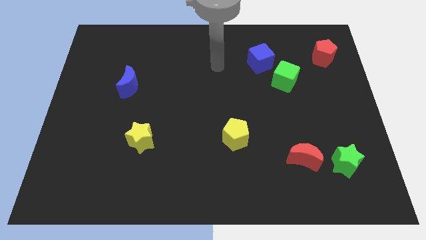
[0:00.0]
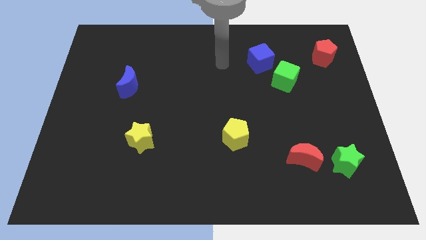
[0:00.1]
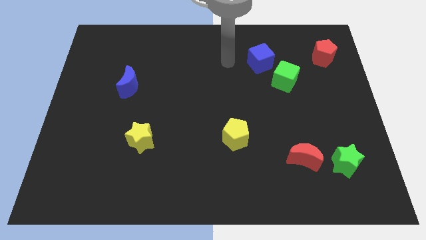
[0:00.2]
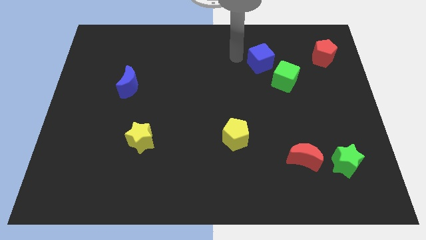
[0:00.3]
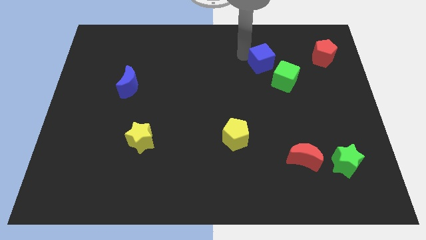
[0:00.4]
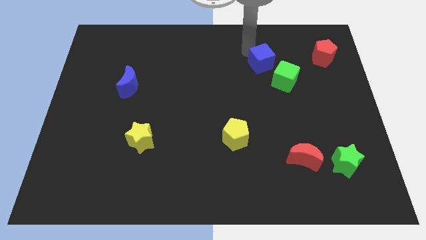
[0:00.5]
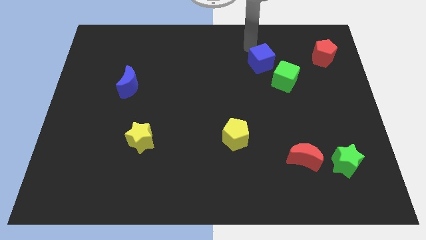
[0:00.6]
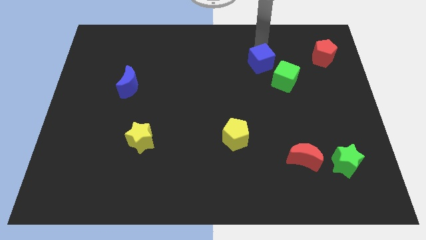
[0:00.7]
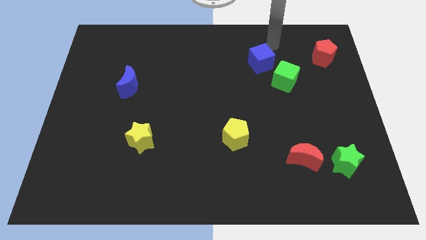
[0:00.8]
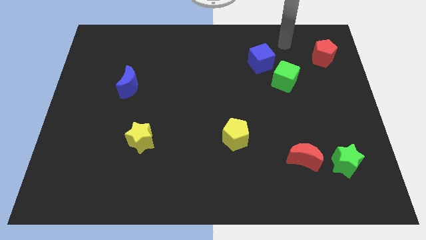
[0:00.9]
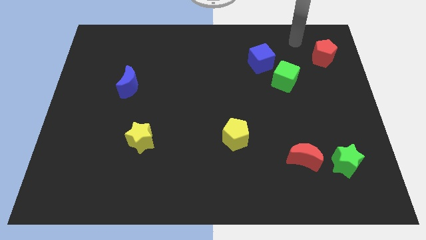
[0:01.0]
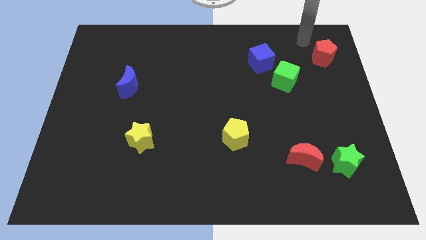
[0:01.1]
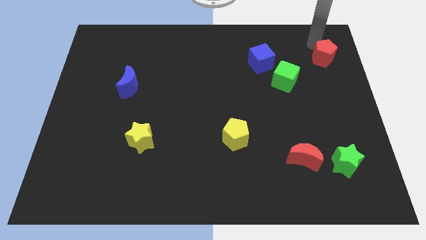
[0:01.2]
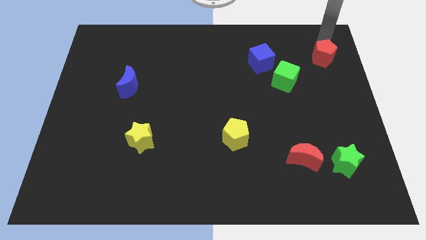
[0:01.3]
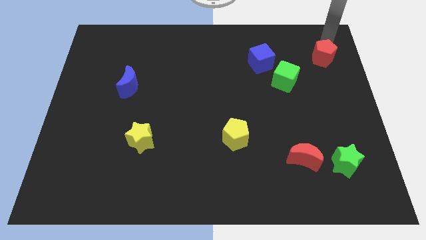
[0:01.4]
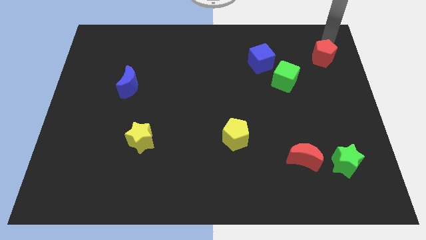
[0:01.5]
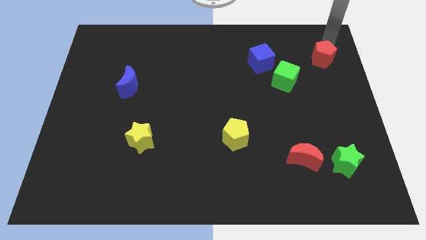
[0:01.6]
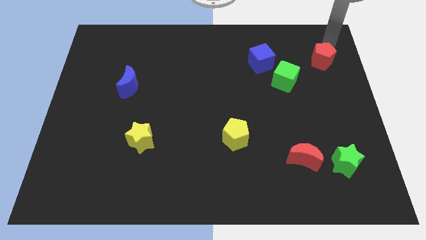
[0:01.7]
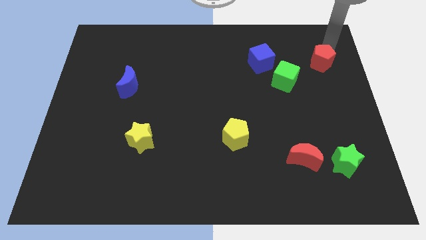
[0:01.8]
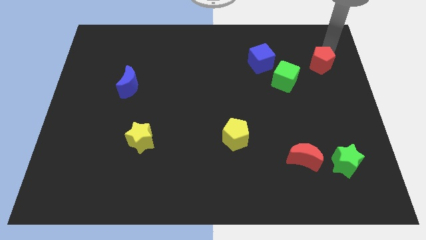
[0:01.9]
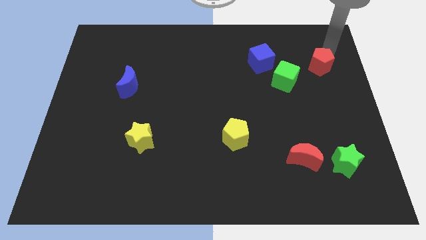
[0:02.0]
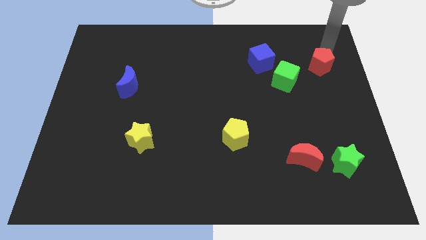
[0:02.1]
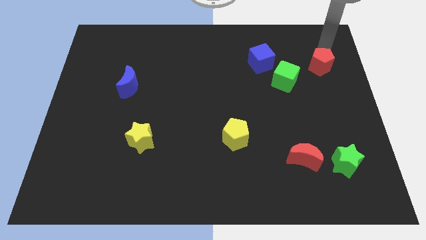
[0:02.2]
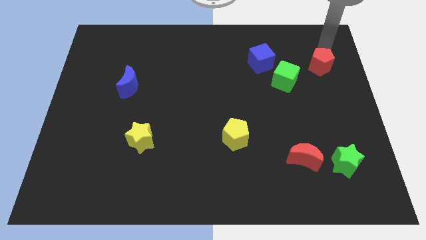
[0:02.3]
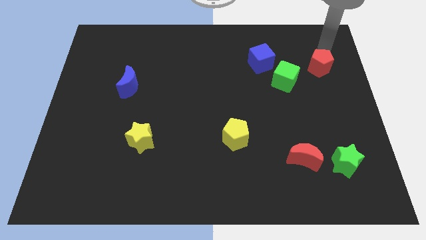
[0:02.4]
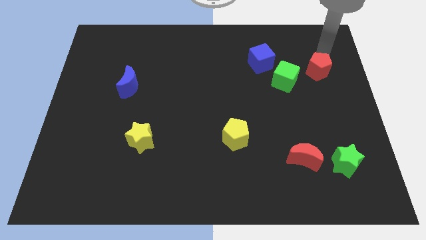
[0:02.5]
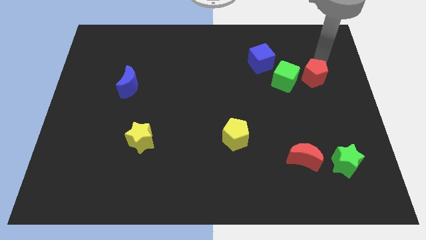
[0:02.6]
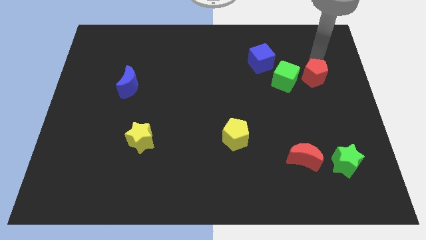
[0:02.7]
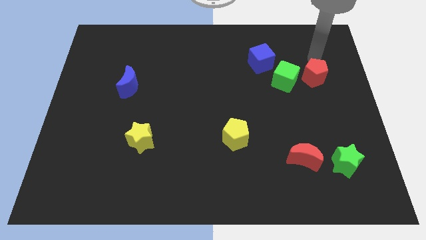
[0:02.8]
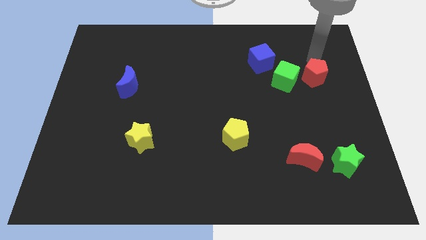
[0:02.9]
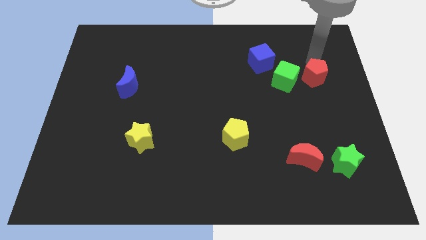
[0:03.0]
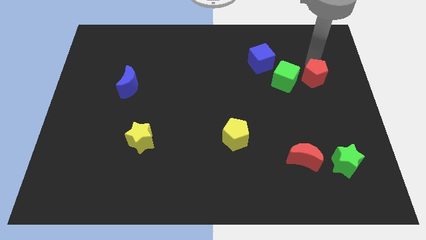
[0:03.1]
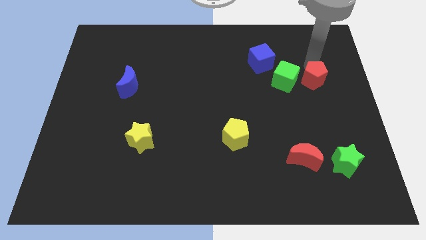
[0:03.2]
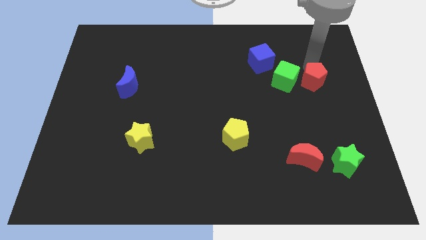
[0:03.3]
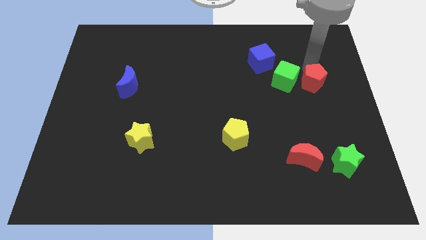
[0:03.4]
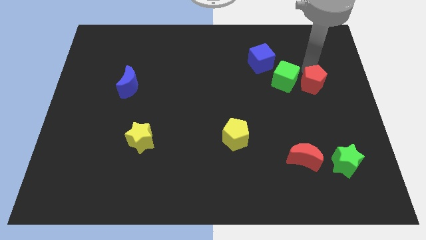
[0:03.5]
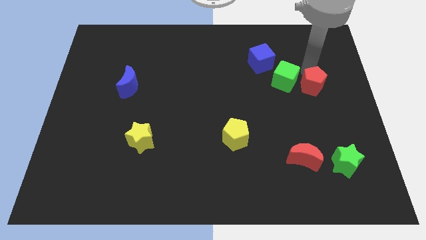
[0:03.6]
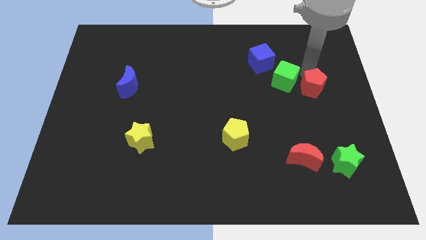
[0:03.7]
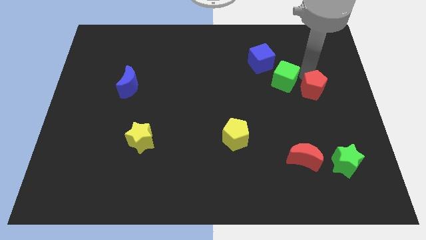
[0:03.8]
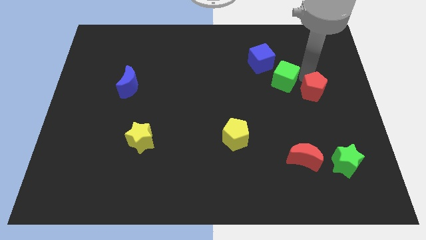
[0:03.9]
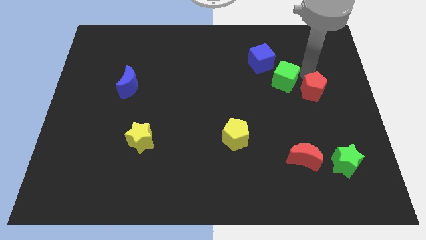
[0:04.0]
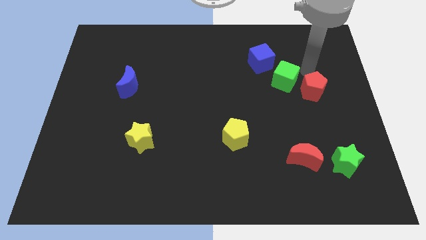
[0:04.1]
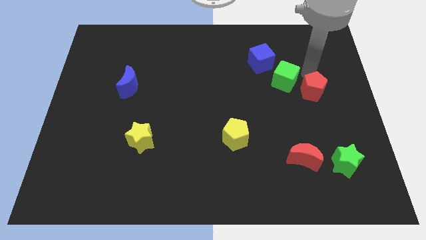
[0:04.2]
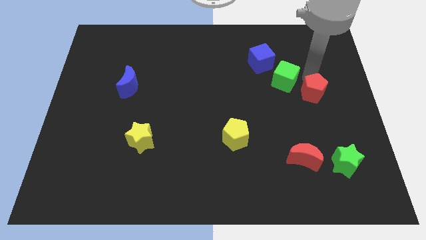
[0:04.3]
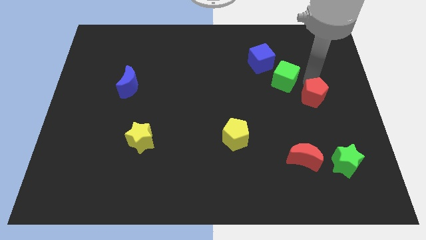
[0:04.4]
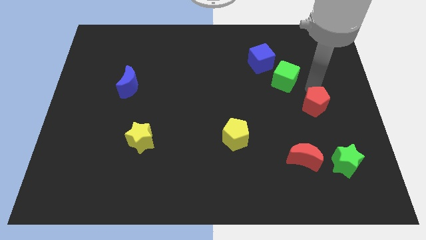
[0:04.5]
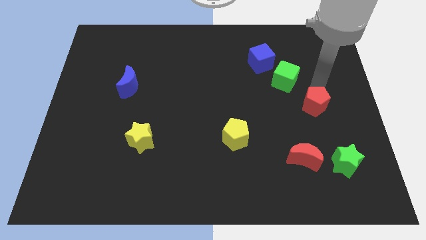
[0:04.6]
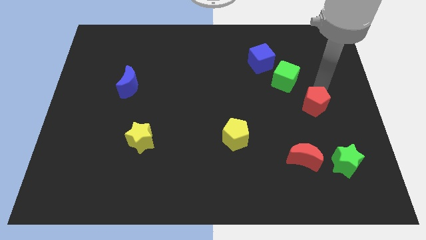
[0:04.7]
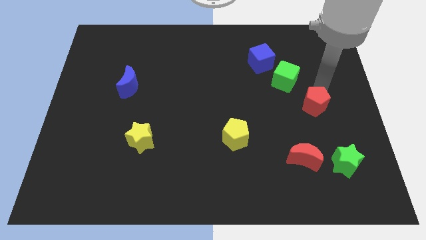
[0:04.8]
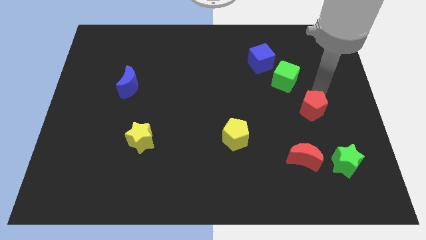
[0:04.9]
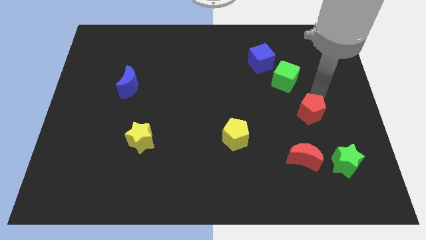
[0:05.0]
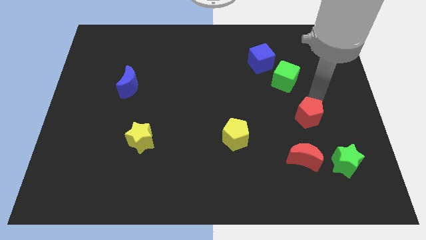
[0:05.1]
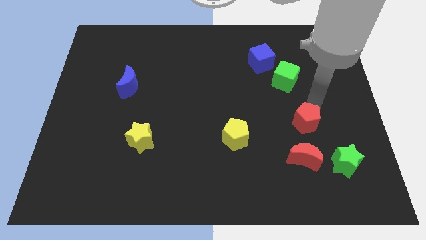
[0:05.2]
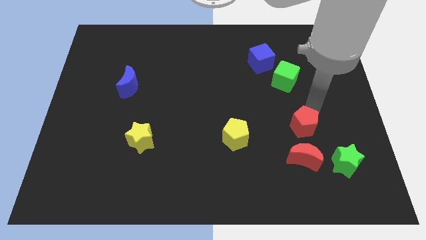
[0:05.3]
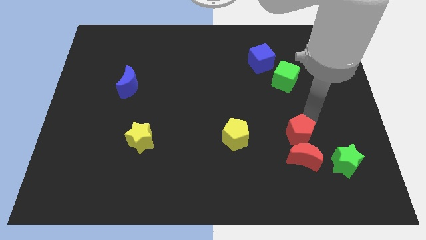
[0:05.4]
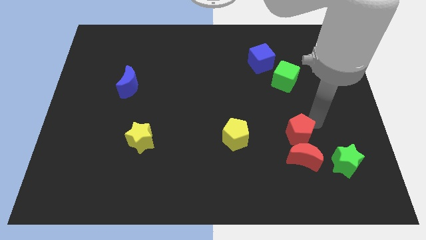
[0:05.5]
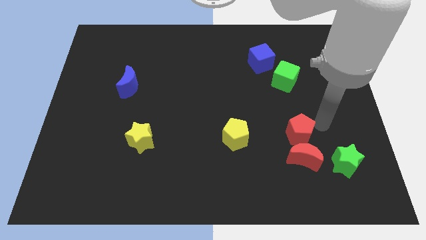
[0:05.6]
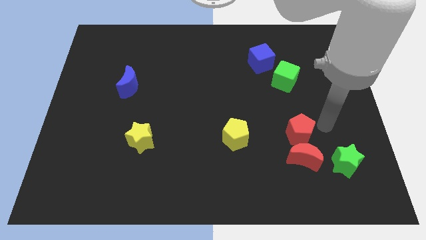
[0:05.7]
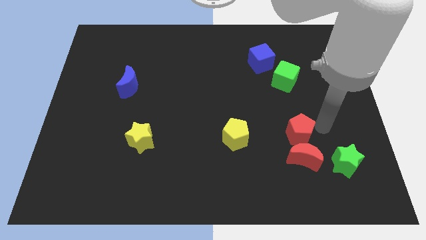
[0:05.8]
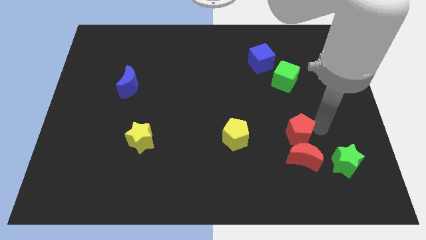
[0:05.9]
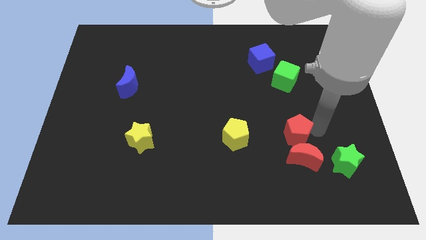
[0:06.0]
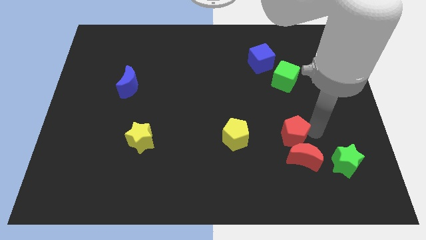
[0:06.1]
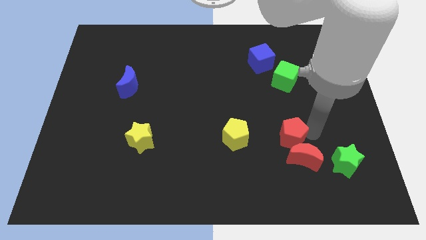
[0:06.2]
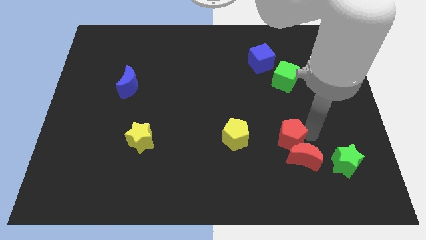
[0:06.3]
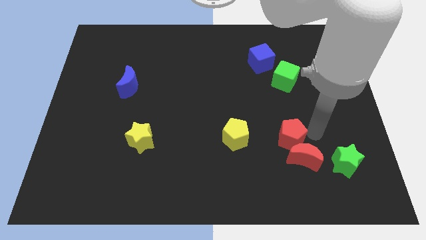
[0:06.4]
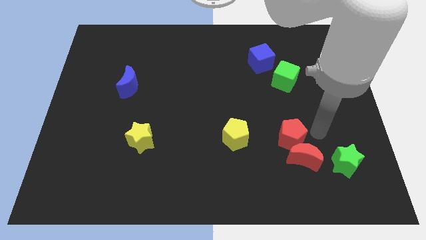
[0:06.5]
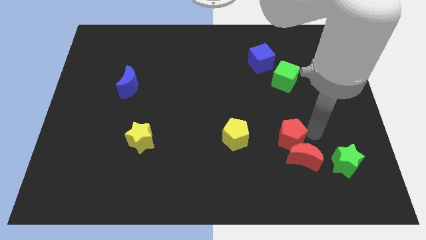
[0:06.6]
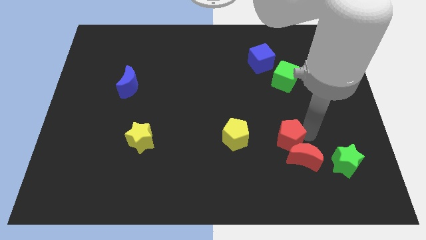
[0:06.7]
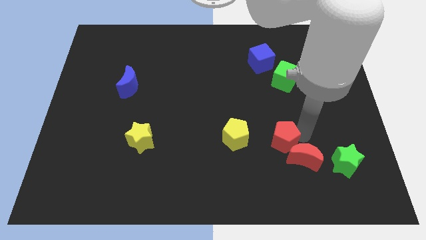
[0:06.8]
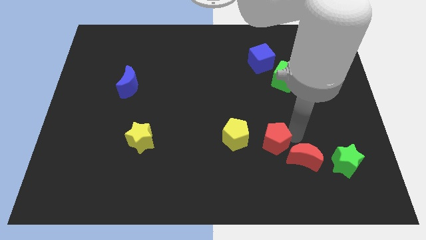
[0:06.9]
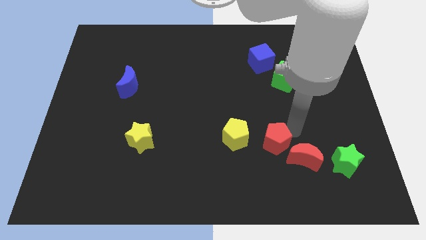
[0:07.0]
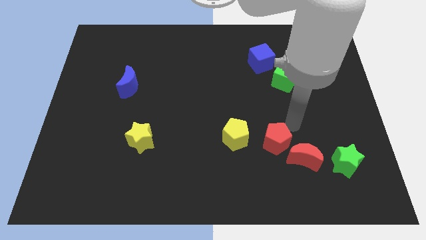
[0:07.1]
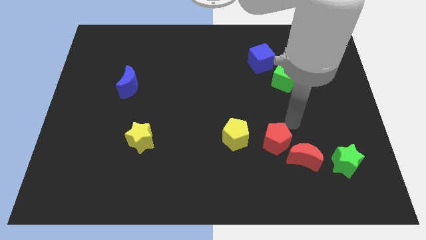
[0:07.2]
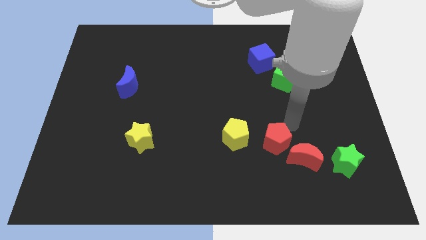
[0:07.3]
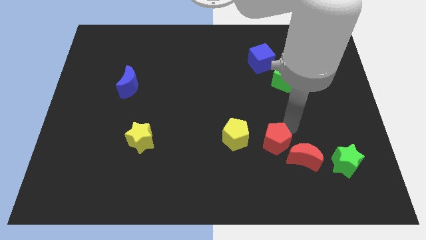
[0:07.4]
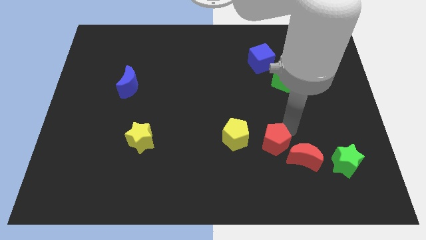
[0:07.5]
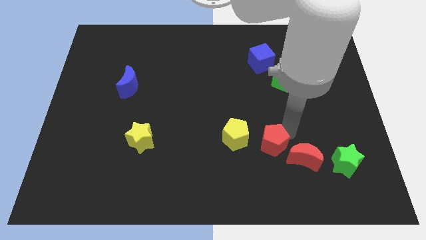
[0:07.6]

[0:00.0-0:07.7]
move the red pentagon to the bottom right side of the yellow pentagon
